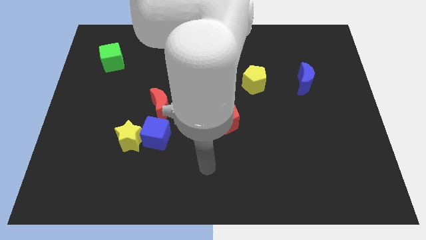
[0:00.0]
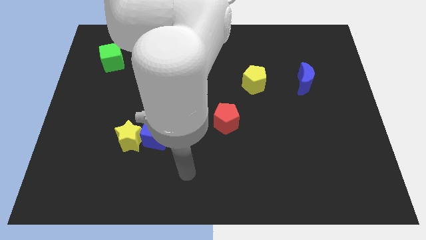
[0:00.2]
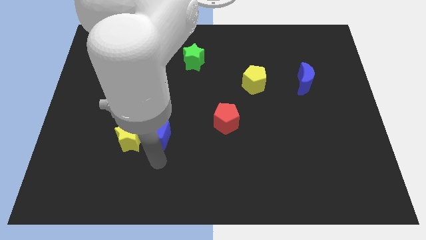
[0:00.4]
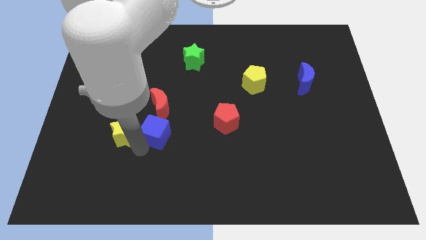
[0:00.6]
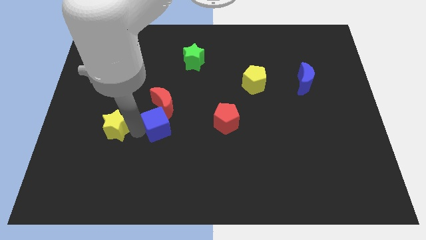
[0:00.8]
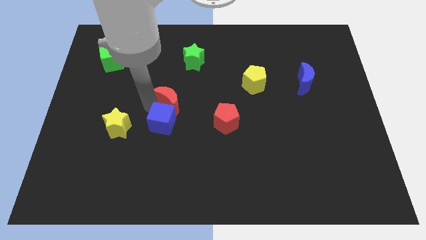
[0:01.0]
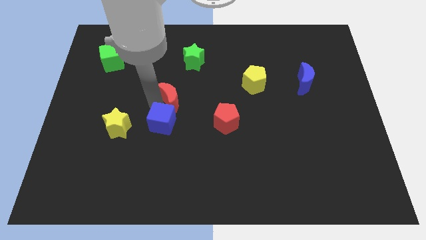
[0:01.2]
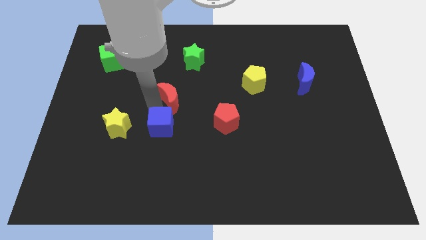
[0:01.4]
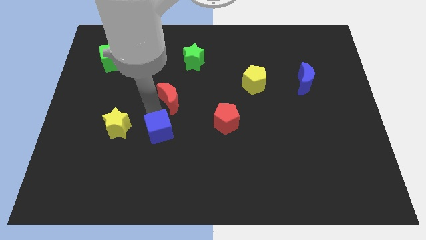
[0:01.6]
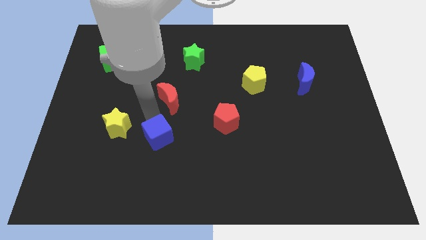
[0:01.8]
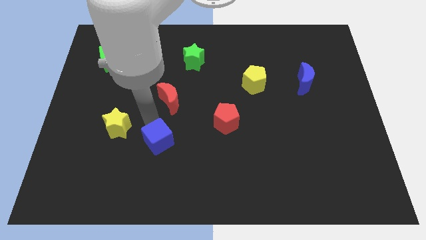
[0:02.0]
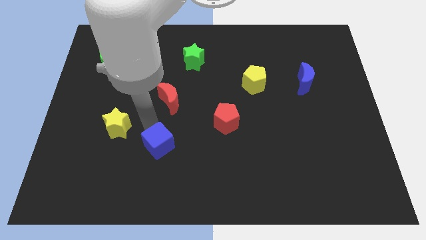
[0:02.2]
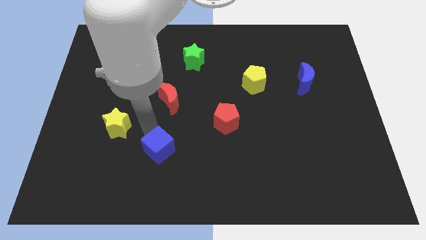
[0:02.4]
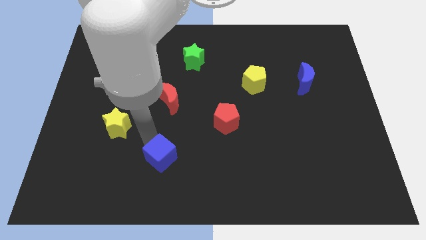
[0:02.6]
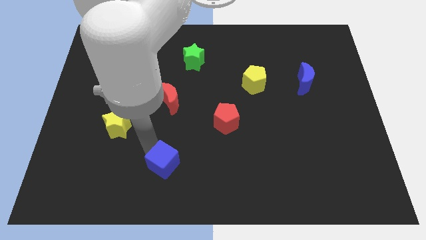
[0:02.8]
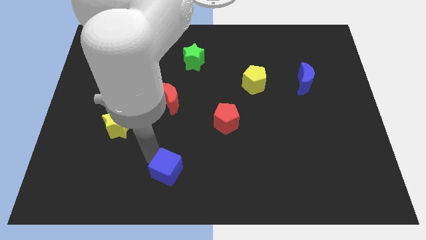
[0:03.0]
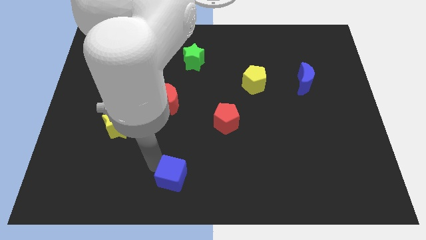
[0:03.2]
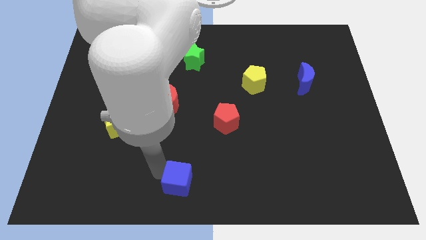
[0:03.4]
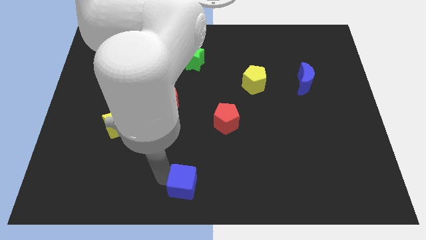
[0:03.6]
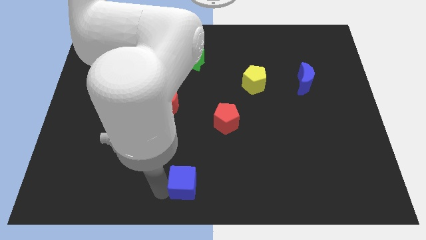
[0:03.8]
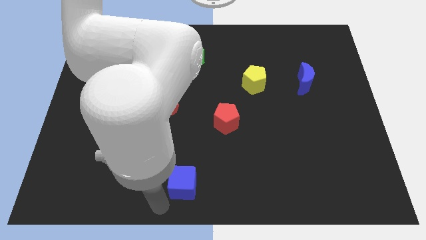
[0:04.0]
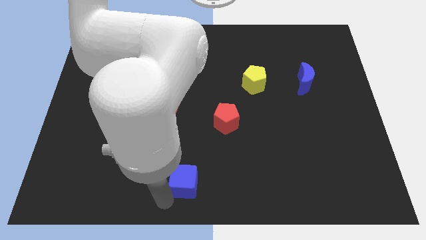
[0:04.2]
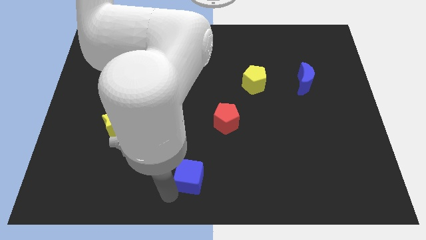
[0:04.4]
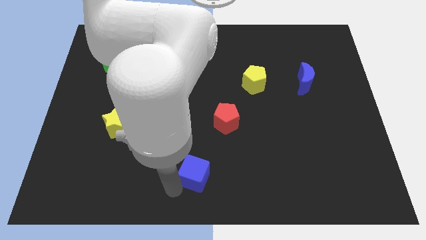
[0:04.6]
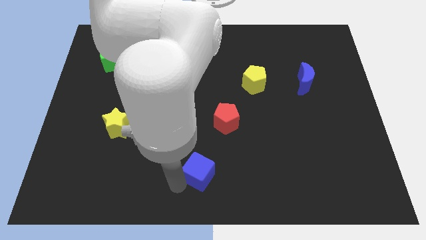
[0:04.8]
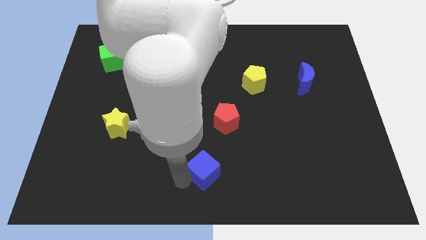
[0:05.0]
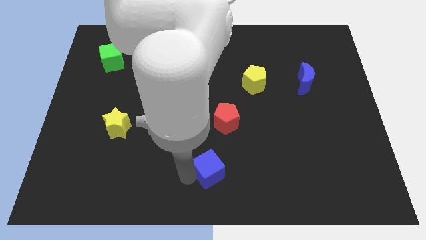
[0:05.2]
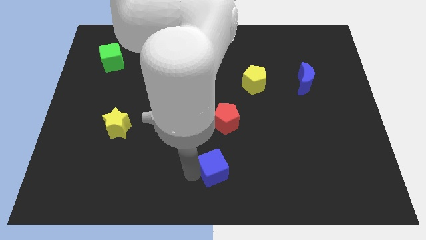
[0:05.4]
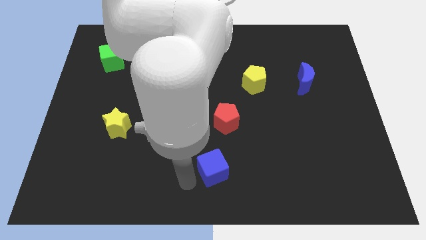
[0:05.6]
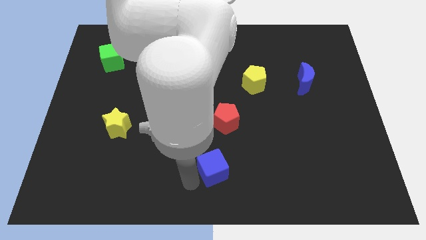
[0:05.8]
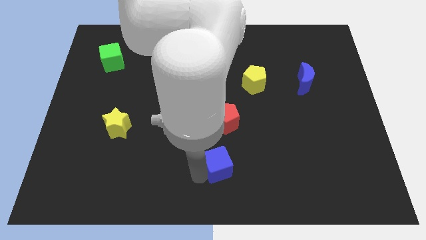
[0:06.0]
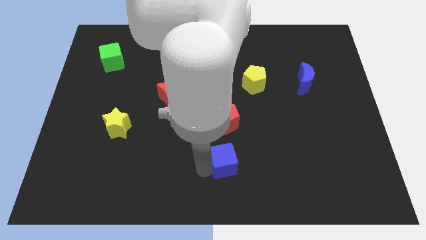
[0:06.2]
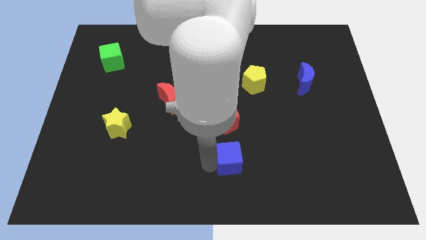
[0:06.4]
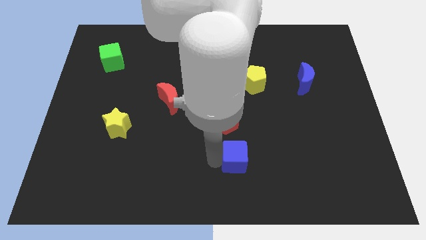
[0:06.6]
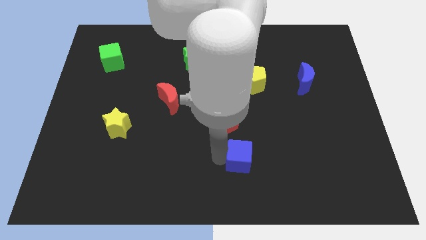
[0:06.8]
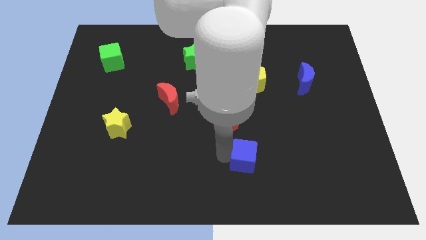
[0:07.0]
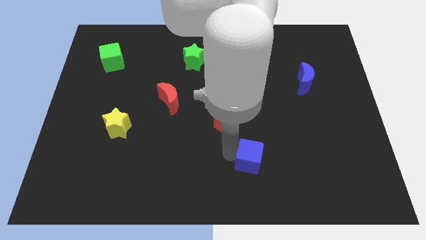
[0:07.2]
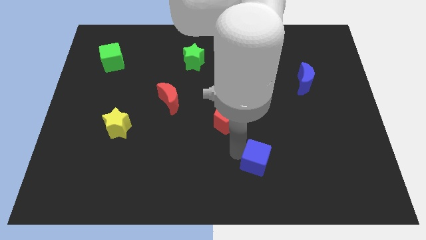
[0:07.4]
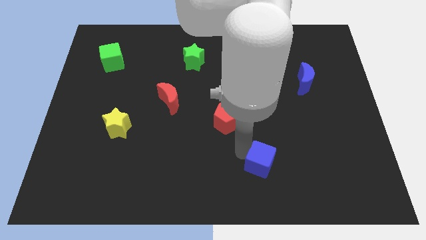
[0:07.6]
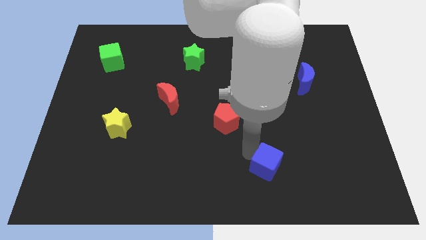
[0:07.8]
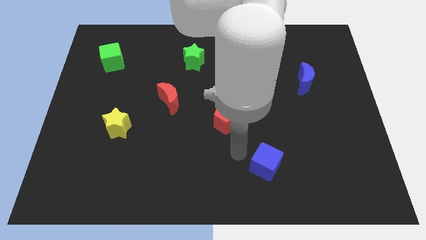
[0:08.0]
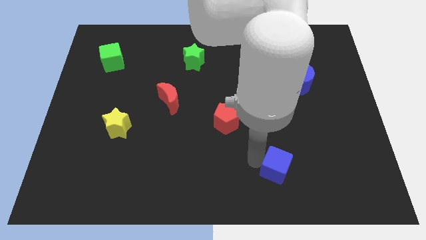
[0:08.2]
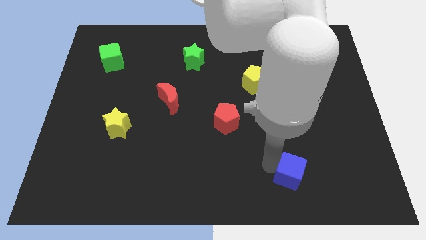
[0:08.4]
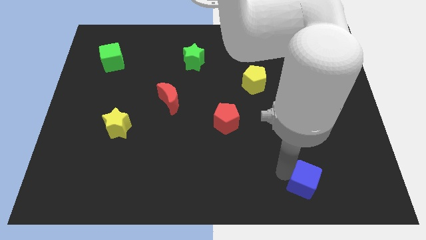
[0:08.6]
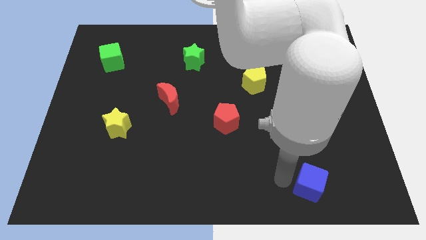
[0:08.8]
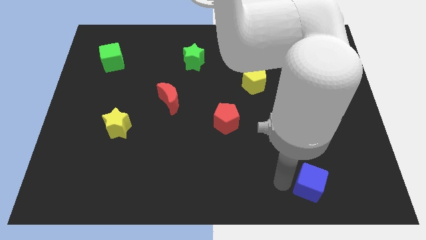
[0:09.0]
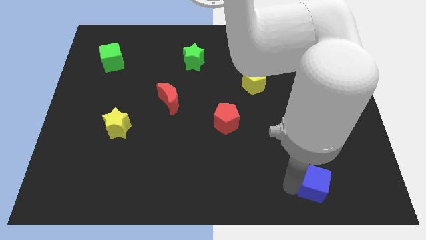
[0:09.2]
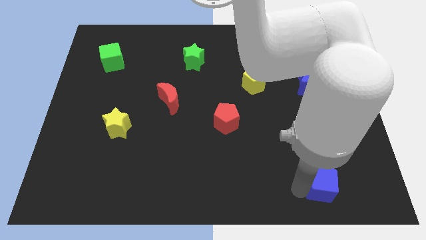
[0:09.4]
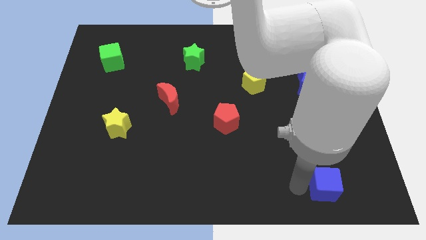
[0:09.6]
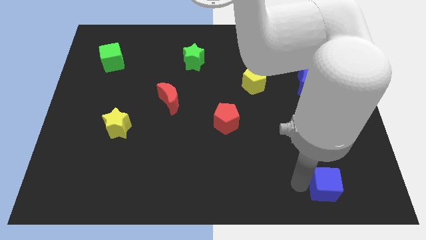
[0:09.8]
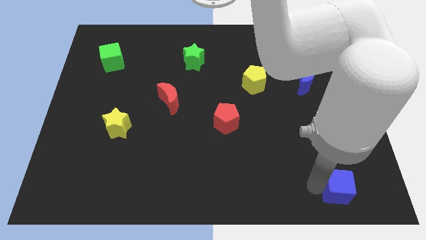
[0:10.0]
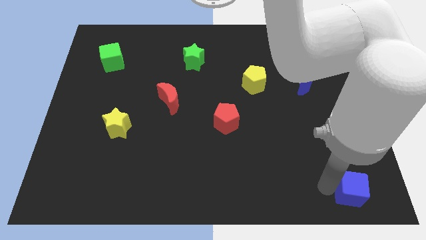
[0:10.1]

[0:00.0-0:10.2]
put the blue cube to the bottom right corner

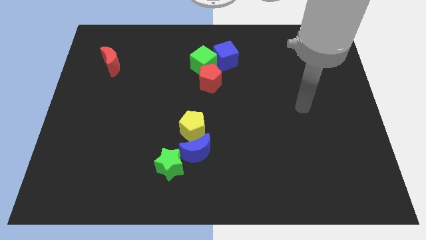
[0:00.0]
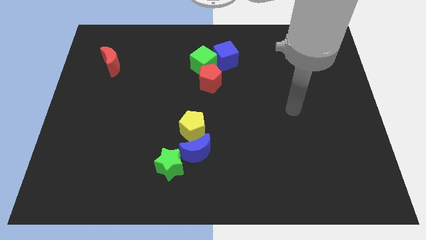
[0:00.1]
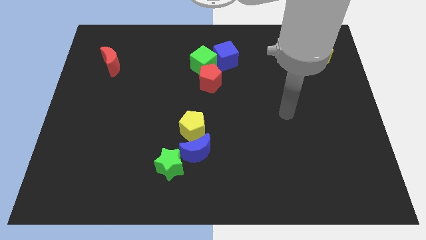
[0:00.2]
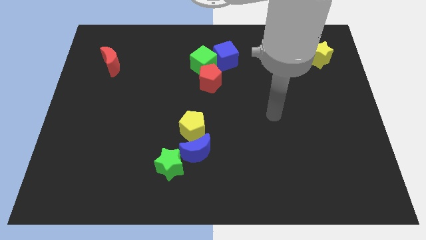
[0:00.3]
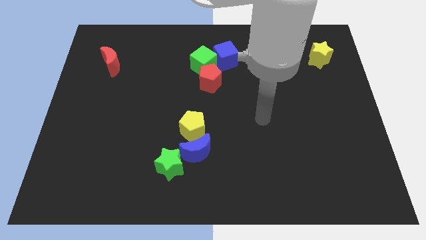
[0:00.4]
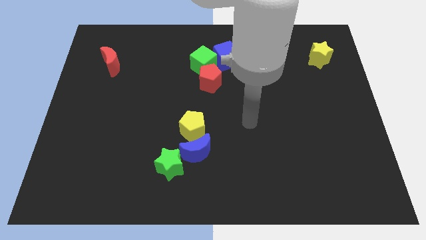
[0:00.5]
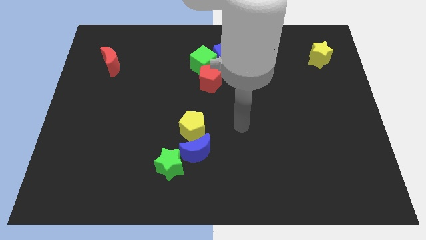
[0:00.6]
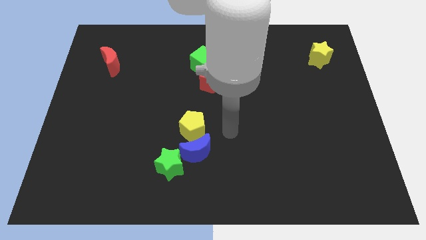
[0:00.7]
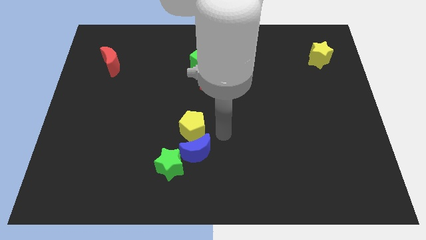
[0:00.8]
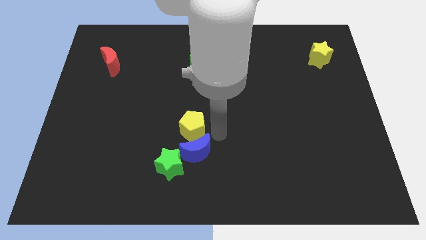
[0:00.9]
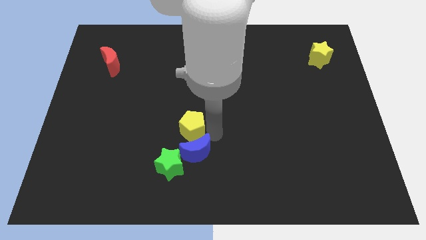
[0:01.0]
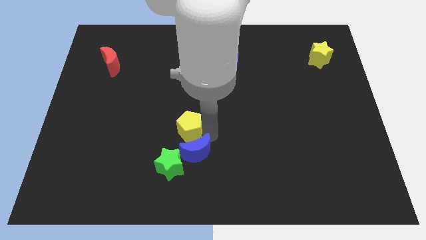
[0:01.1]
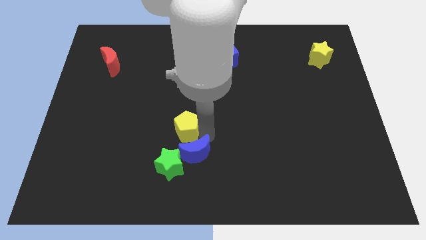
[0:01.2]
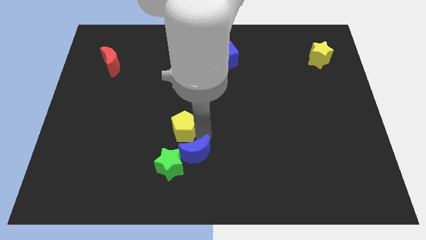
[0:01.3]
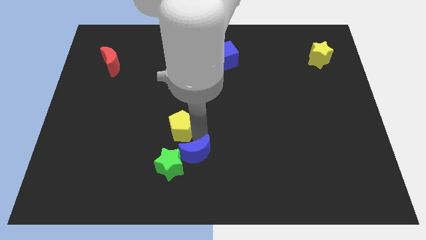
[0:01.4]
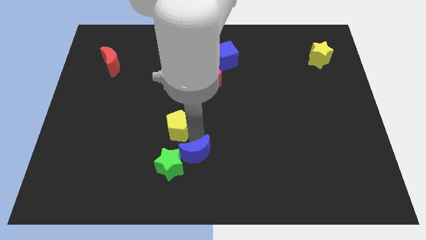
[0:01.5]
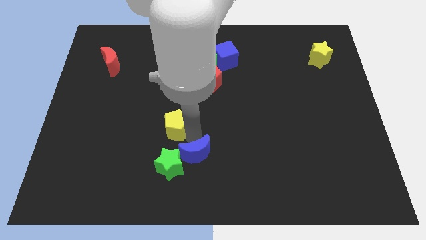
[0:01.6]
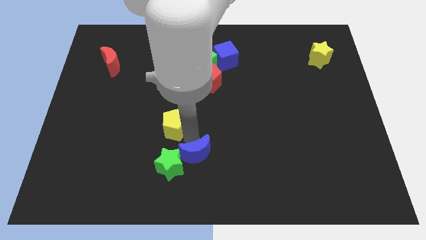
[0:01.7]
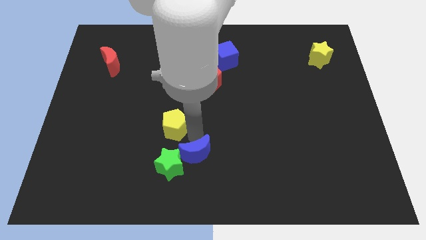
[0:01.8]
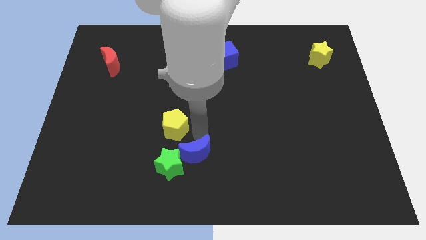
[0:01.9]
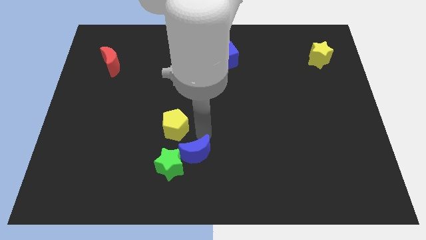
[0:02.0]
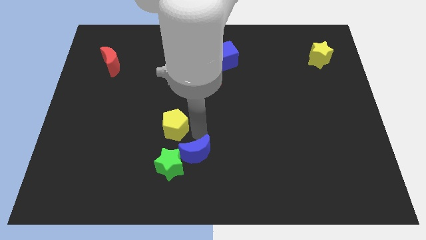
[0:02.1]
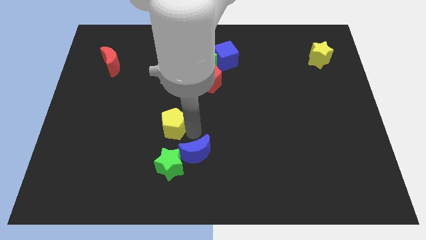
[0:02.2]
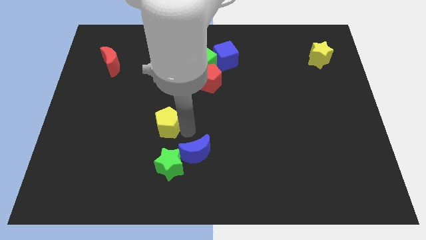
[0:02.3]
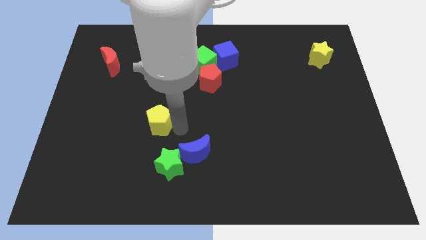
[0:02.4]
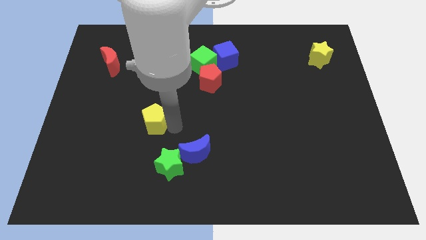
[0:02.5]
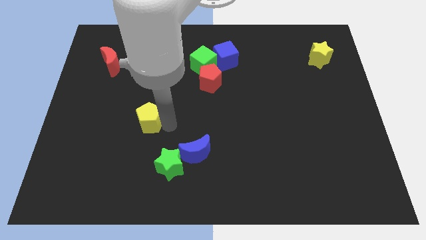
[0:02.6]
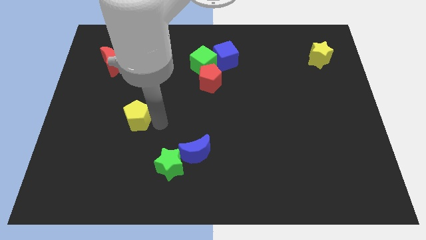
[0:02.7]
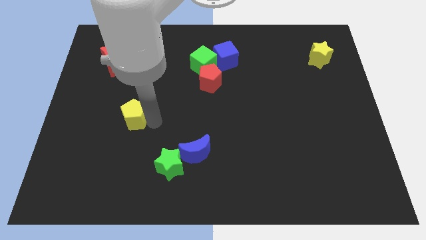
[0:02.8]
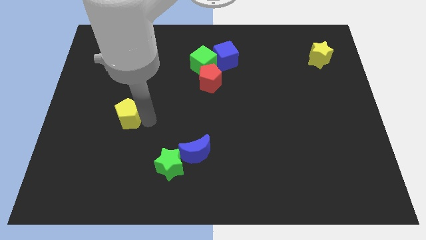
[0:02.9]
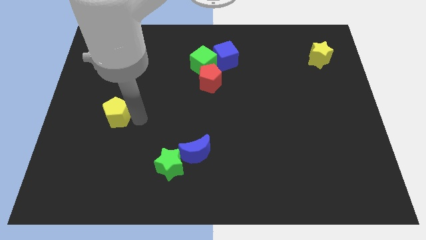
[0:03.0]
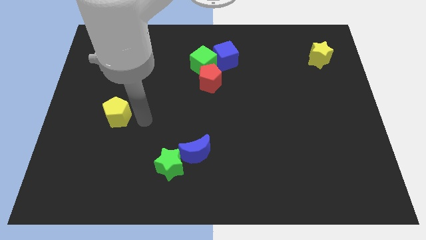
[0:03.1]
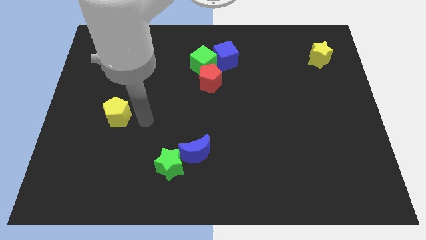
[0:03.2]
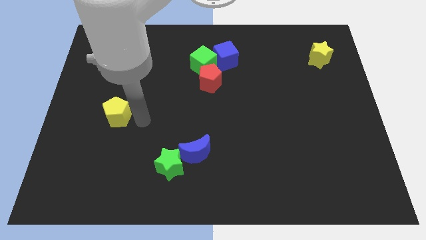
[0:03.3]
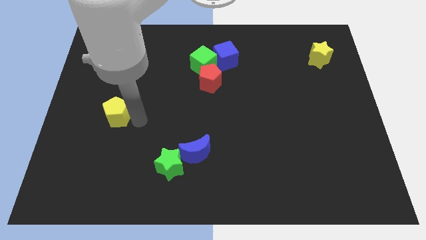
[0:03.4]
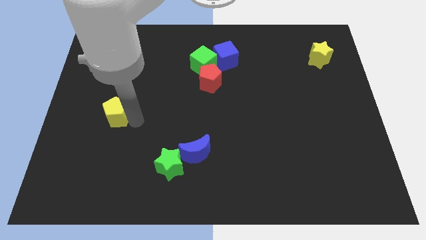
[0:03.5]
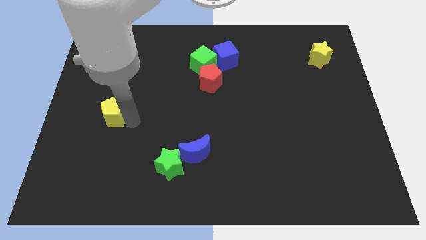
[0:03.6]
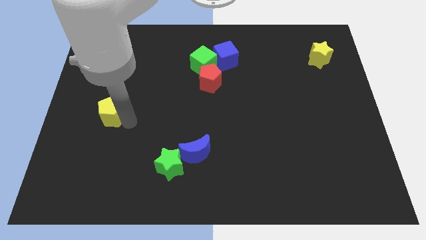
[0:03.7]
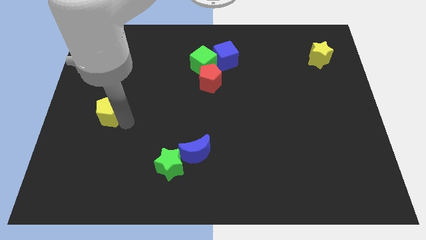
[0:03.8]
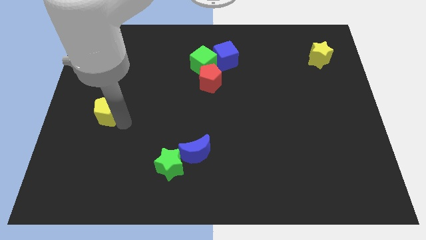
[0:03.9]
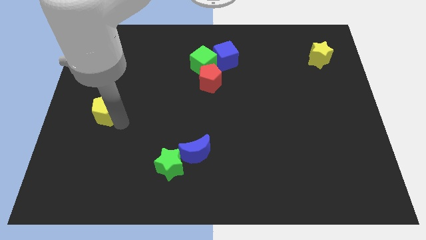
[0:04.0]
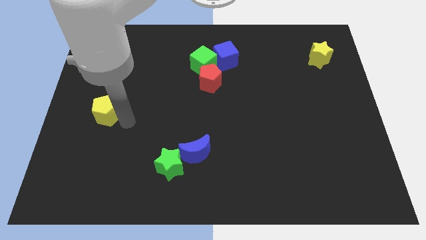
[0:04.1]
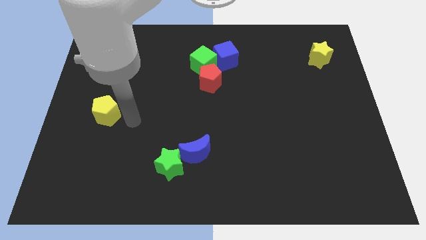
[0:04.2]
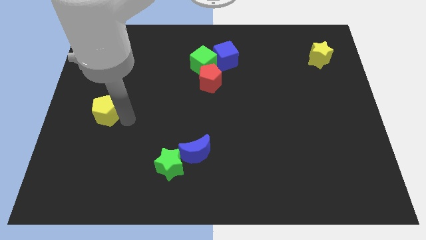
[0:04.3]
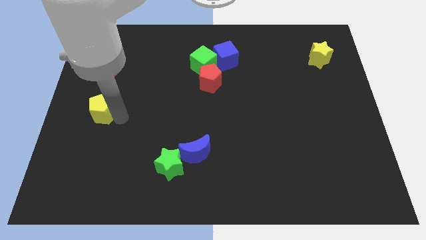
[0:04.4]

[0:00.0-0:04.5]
push the yellow pentagon to the left side
